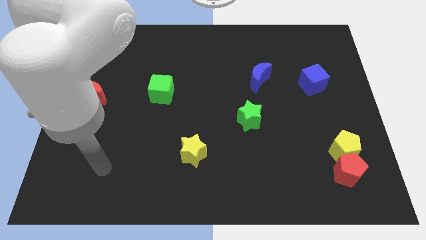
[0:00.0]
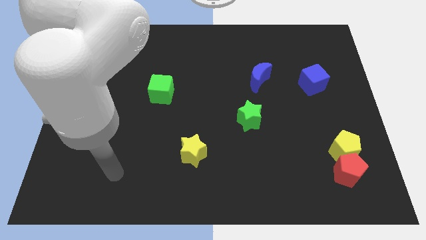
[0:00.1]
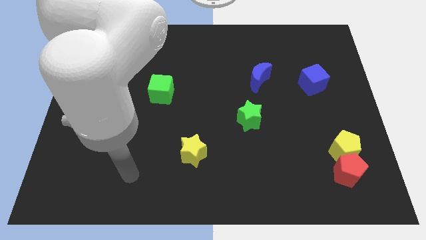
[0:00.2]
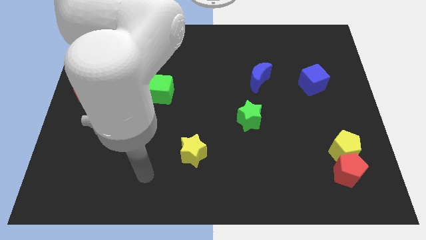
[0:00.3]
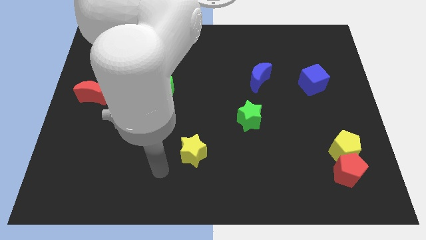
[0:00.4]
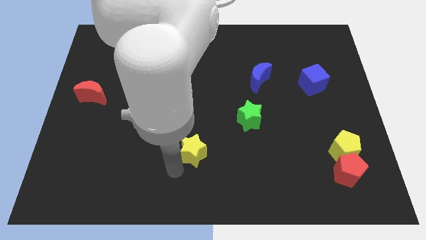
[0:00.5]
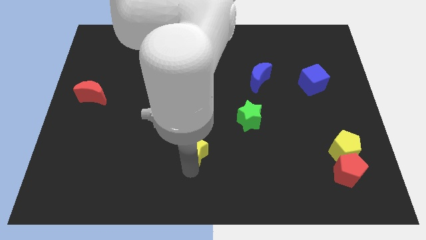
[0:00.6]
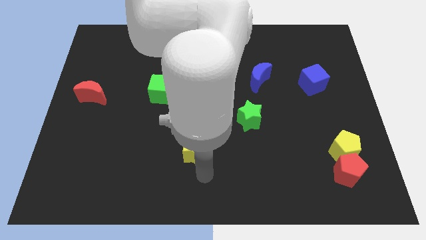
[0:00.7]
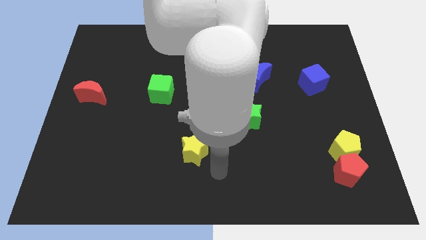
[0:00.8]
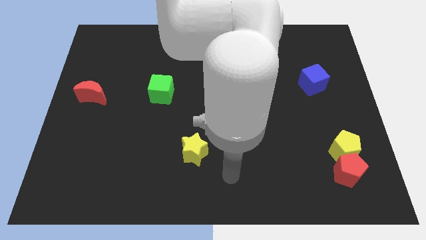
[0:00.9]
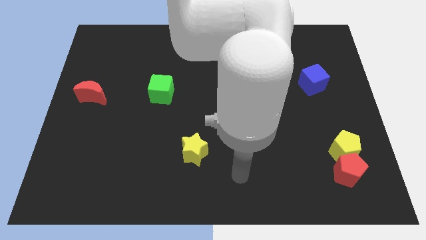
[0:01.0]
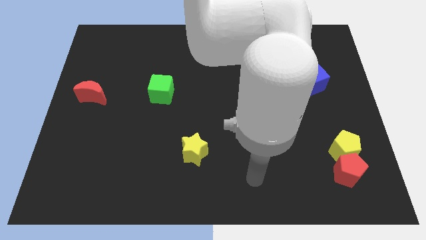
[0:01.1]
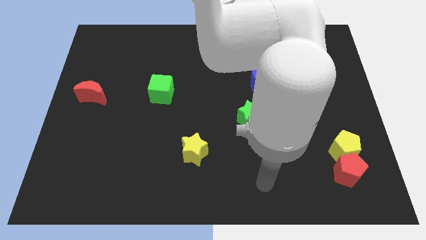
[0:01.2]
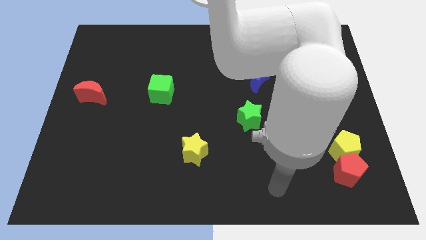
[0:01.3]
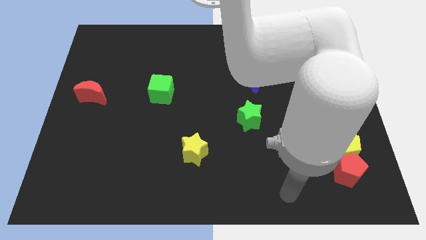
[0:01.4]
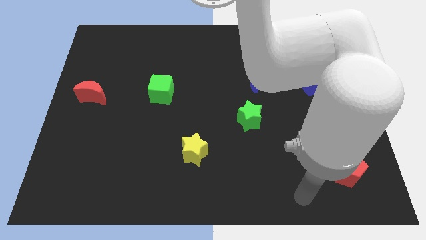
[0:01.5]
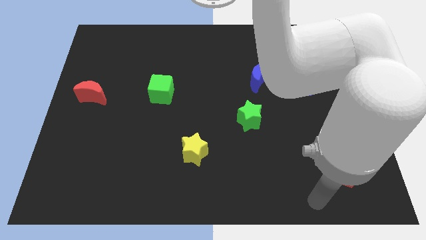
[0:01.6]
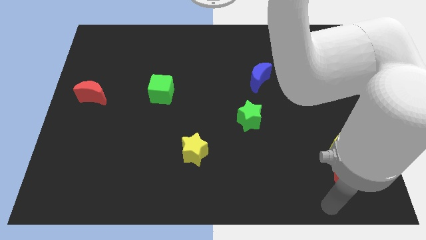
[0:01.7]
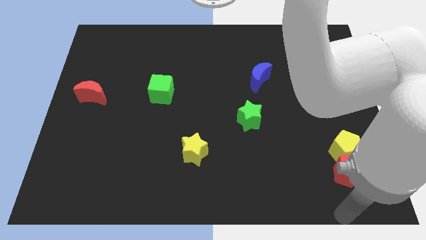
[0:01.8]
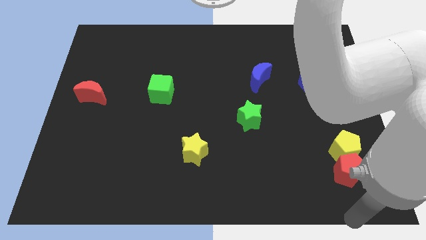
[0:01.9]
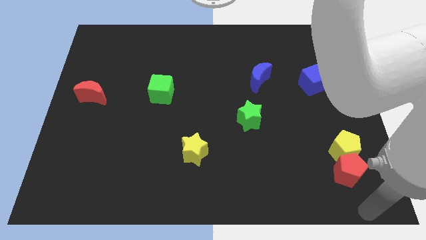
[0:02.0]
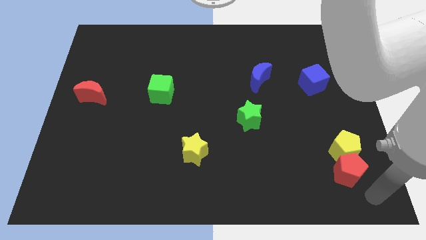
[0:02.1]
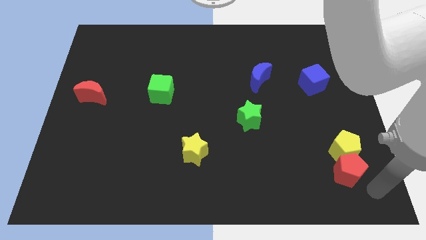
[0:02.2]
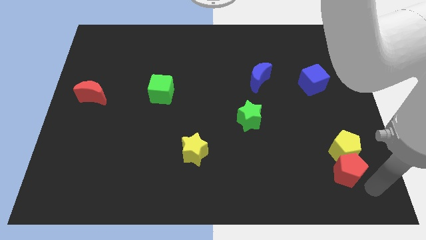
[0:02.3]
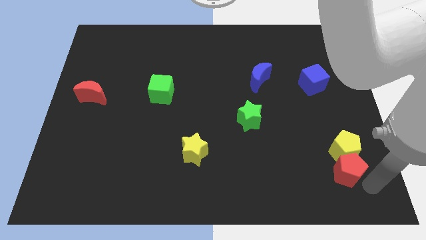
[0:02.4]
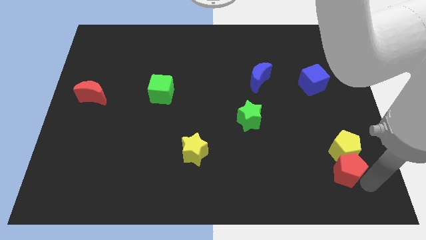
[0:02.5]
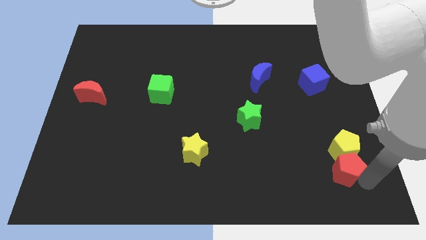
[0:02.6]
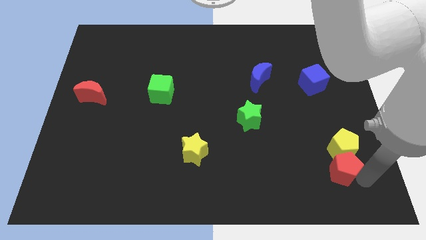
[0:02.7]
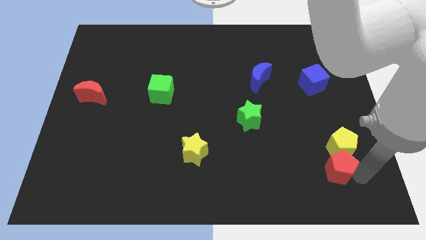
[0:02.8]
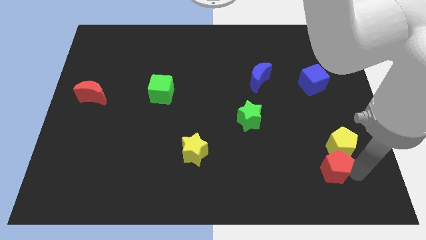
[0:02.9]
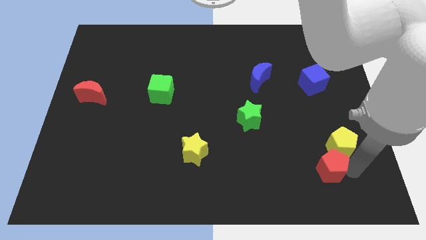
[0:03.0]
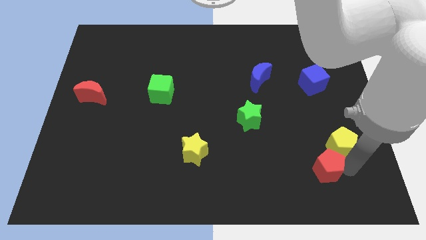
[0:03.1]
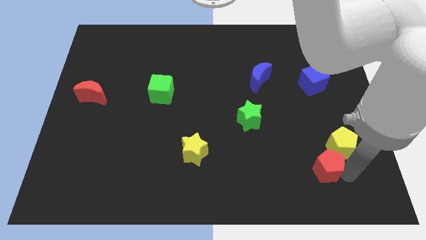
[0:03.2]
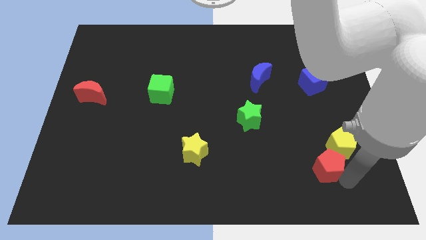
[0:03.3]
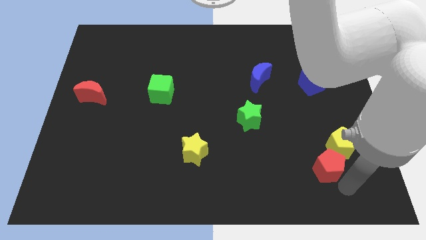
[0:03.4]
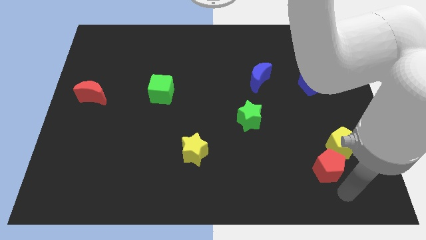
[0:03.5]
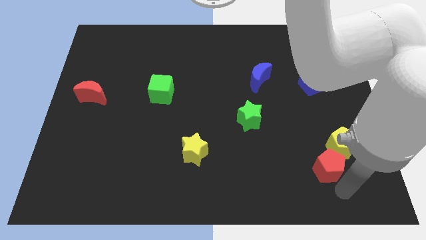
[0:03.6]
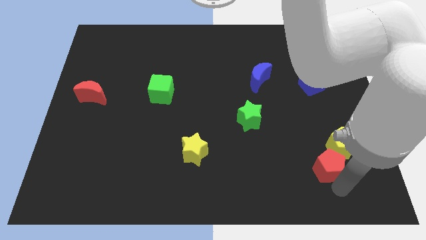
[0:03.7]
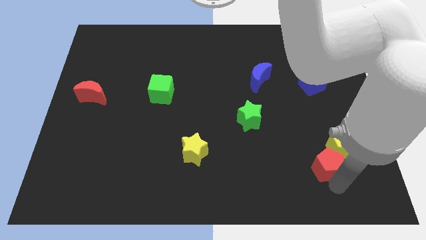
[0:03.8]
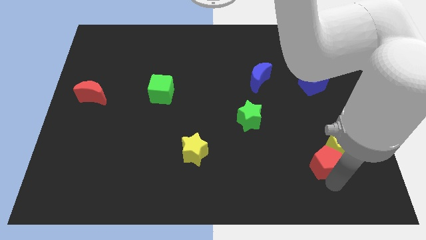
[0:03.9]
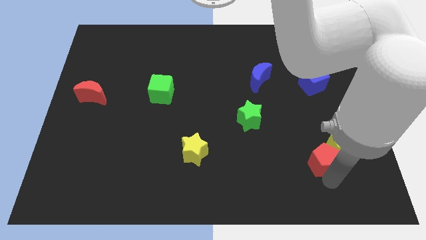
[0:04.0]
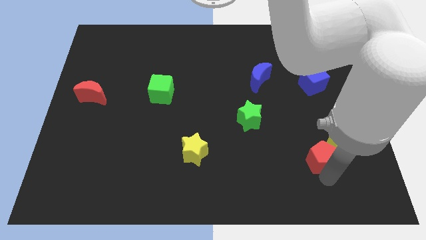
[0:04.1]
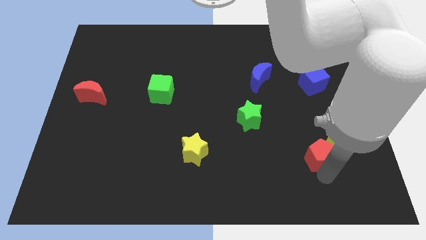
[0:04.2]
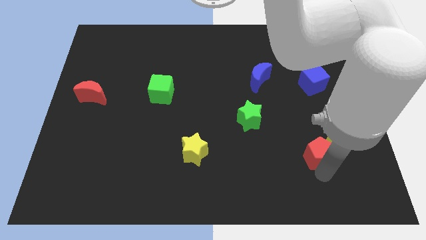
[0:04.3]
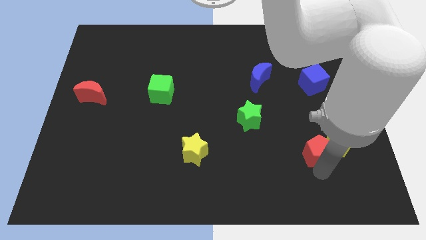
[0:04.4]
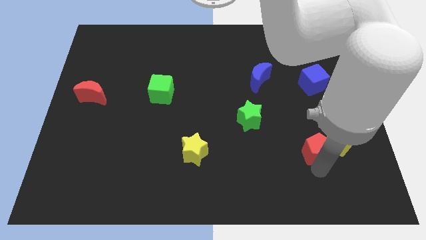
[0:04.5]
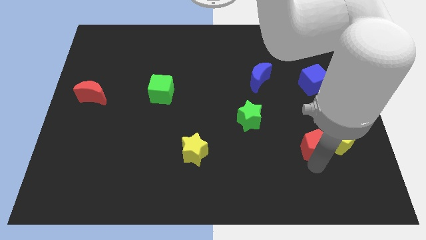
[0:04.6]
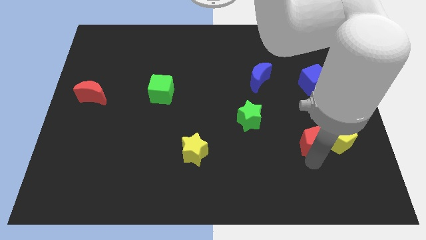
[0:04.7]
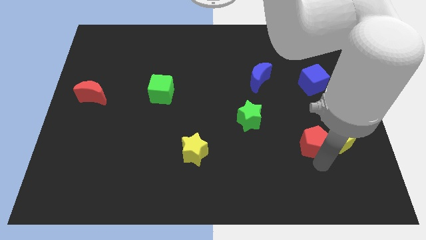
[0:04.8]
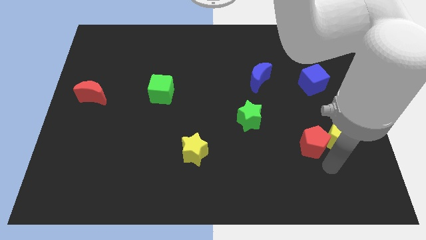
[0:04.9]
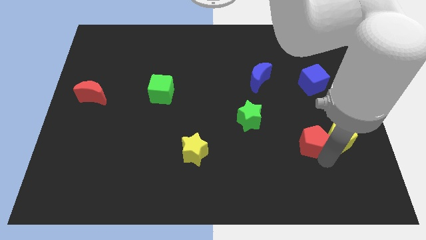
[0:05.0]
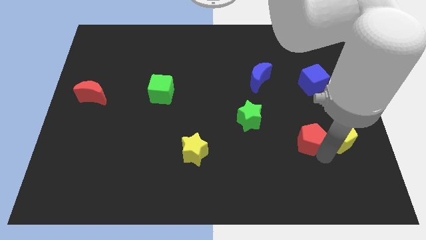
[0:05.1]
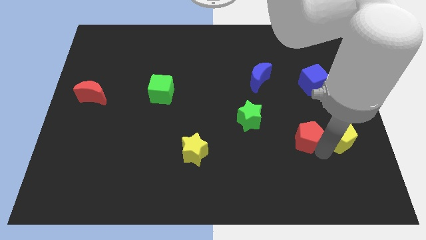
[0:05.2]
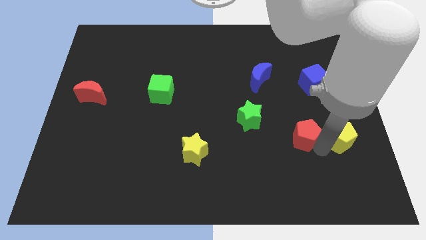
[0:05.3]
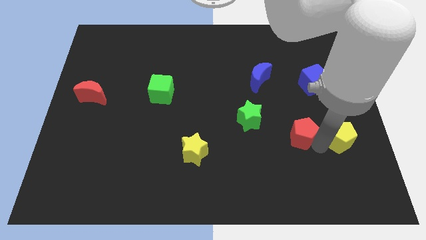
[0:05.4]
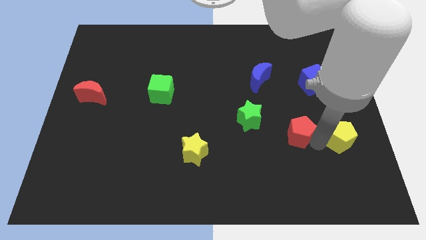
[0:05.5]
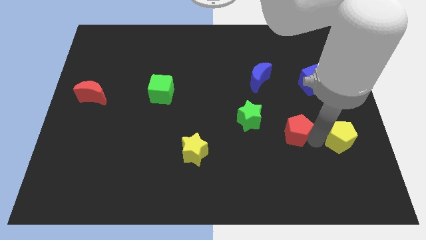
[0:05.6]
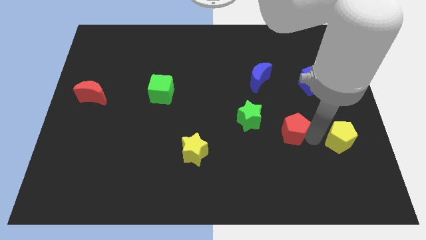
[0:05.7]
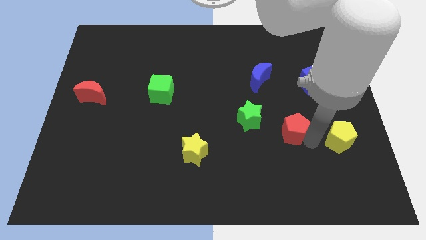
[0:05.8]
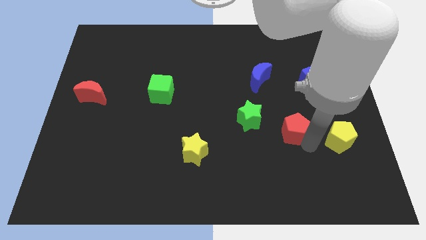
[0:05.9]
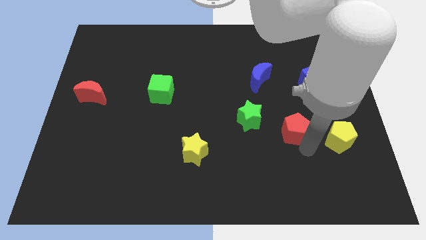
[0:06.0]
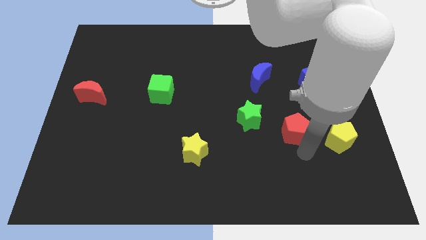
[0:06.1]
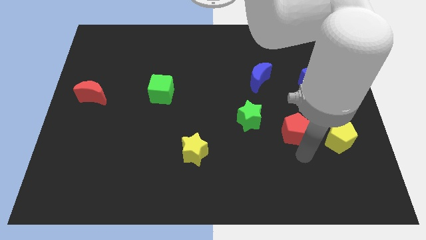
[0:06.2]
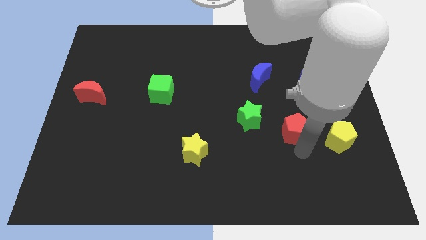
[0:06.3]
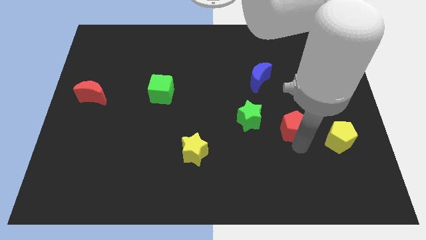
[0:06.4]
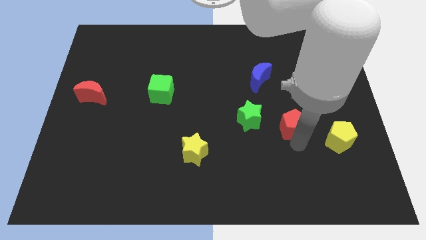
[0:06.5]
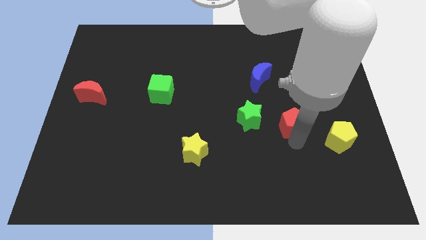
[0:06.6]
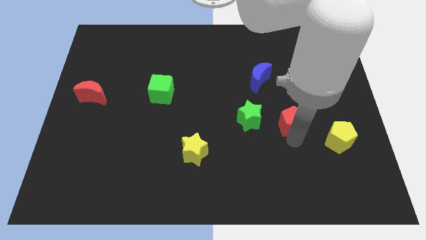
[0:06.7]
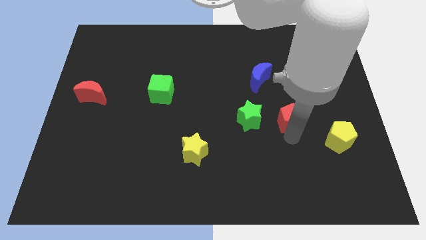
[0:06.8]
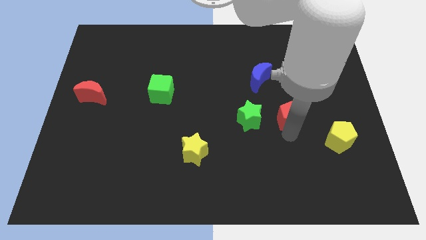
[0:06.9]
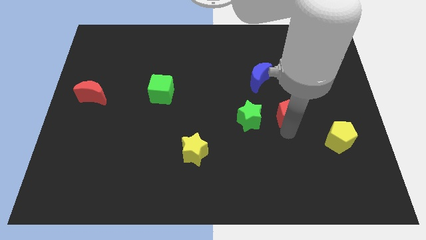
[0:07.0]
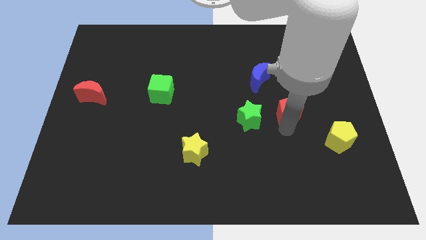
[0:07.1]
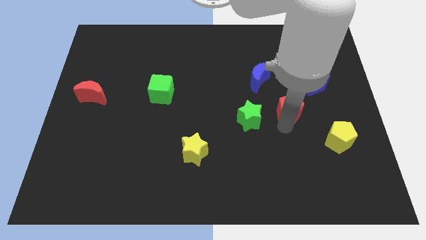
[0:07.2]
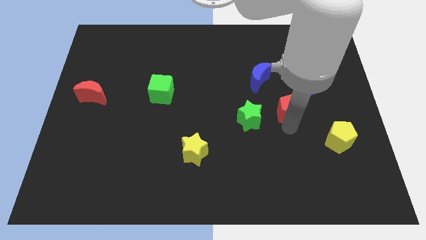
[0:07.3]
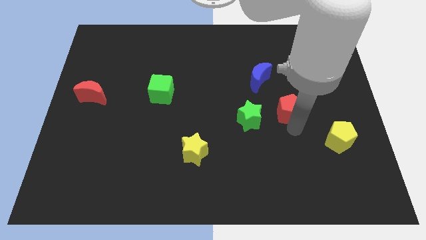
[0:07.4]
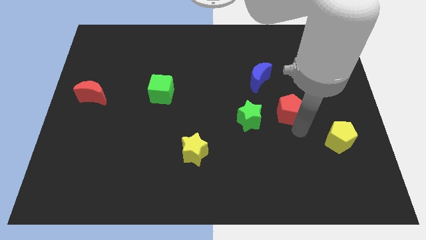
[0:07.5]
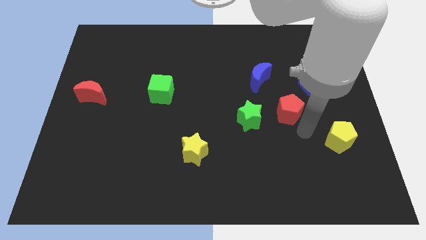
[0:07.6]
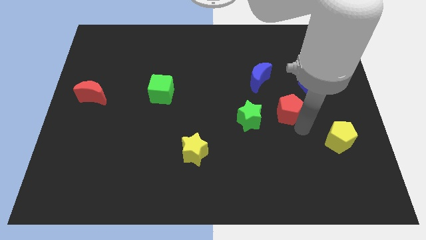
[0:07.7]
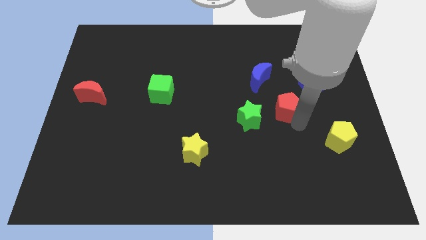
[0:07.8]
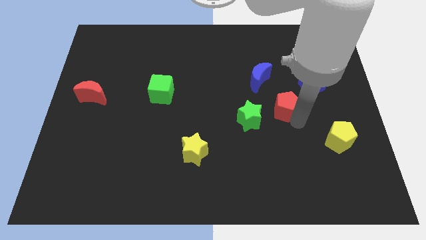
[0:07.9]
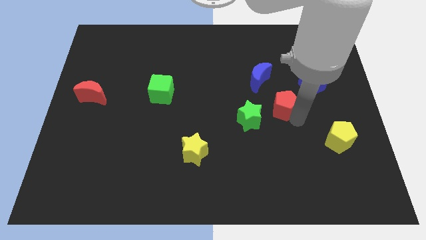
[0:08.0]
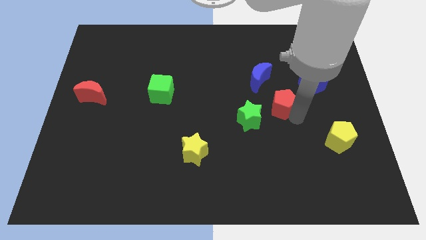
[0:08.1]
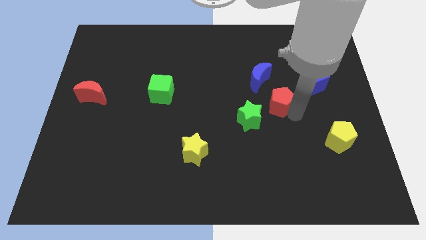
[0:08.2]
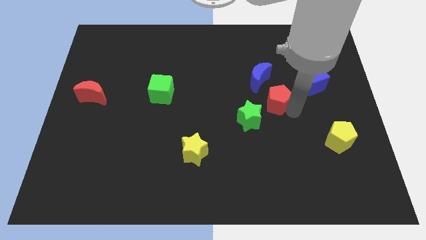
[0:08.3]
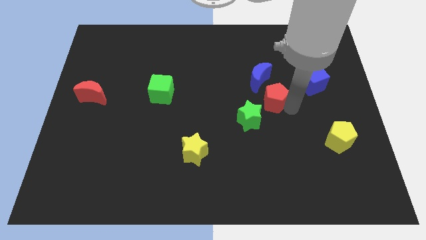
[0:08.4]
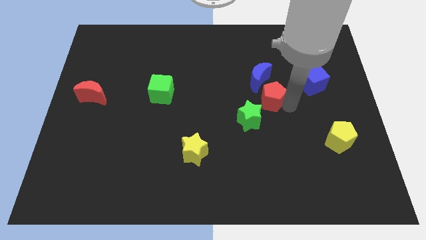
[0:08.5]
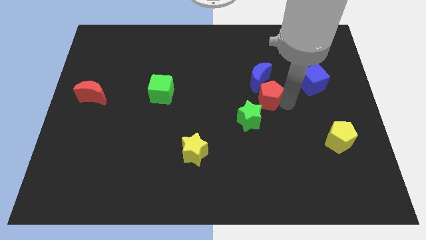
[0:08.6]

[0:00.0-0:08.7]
slide the red pentagon to the blue moon
